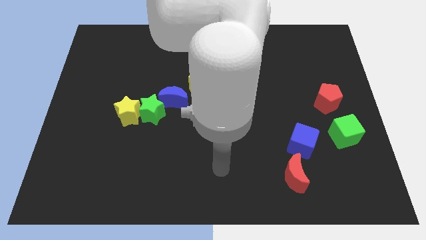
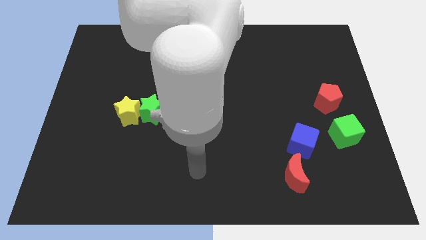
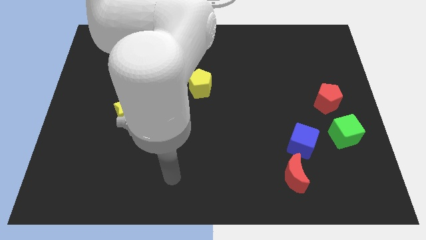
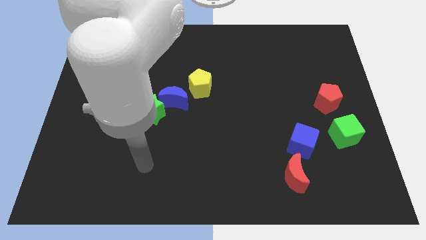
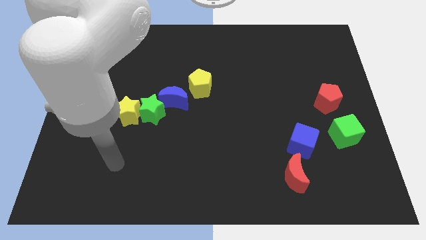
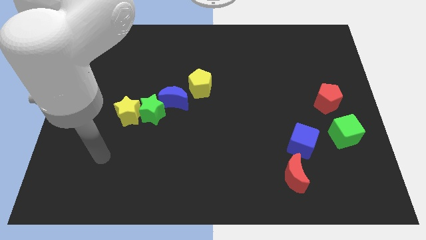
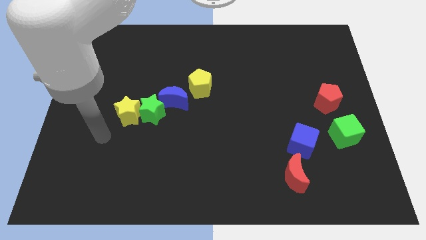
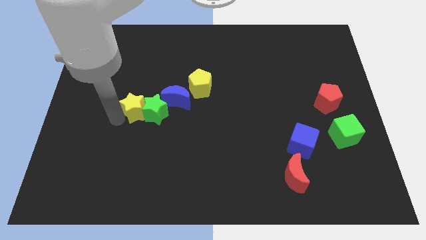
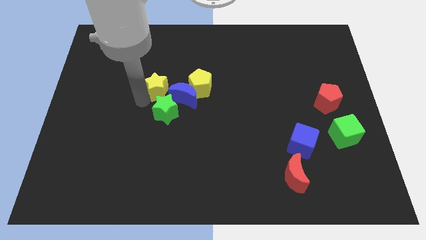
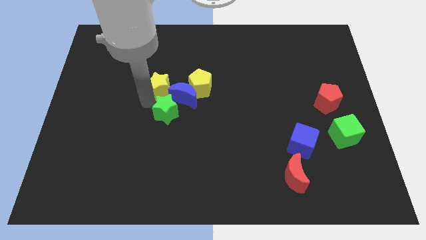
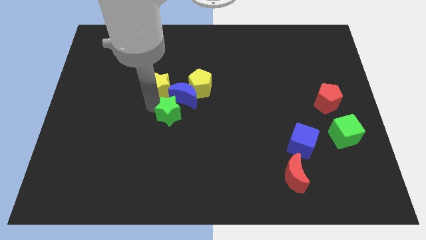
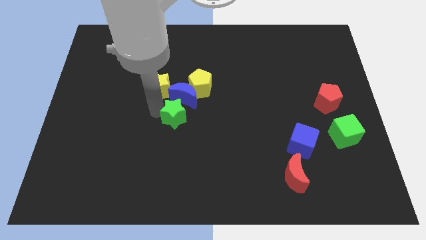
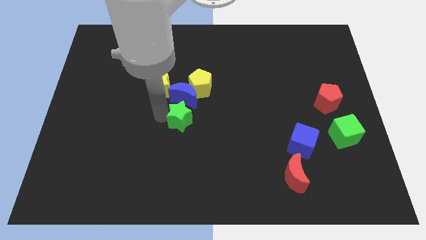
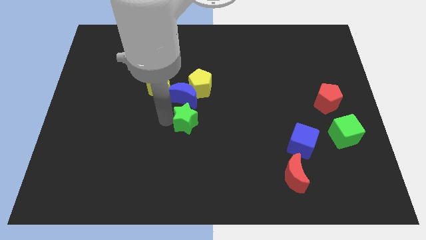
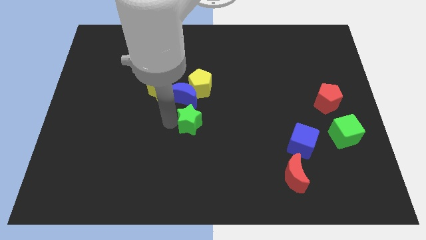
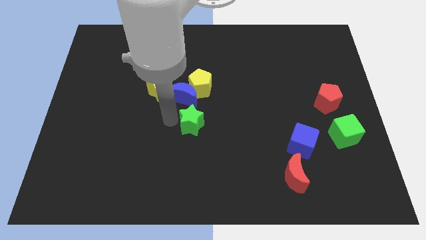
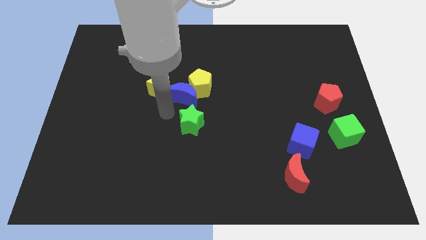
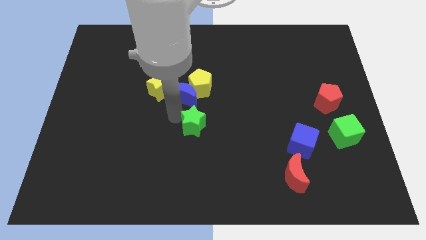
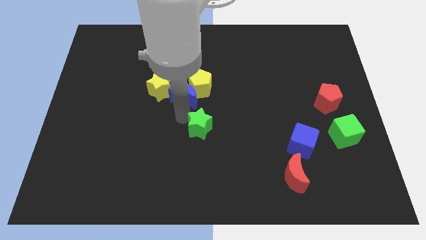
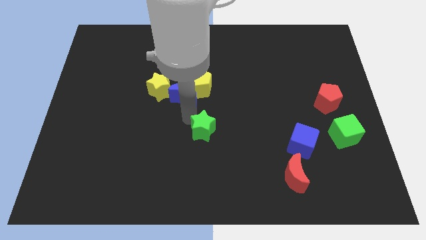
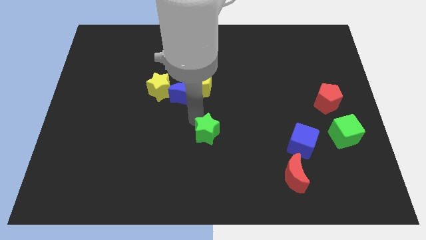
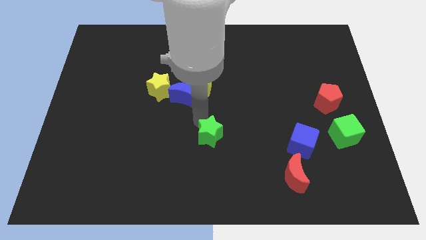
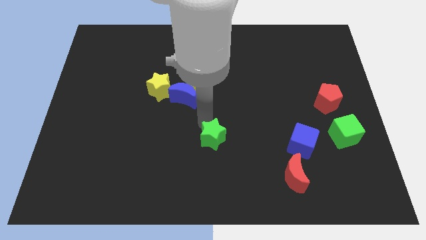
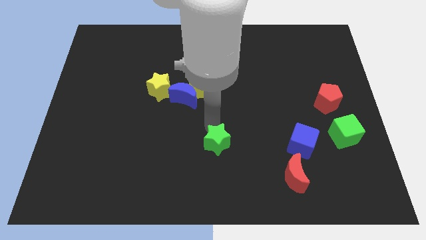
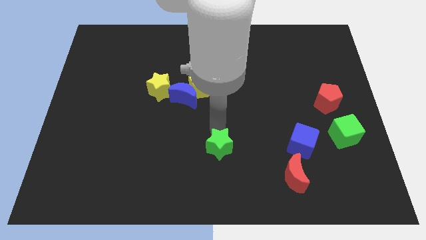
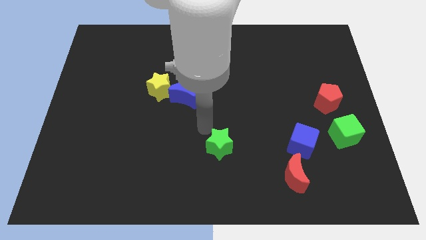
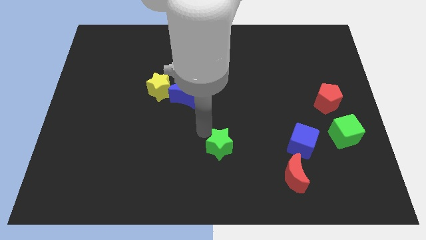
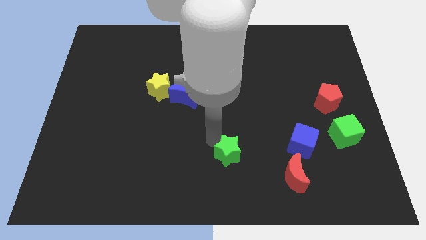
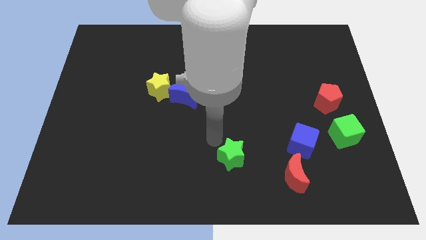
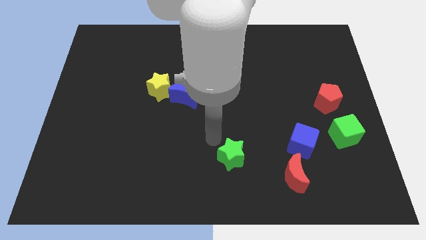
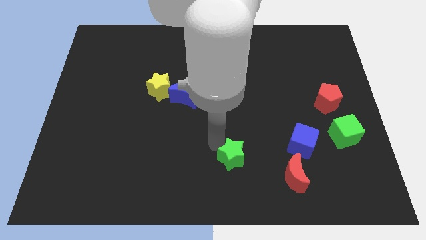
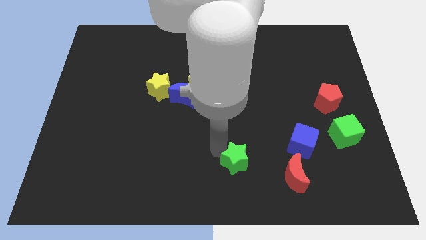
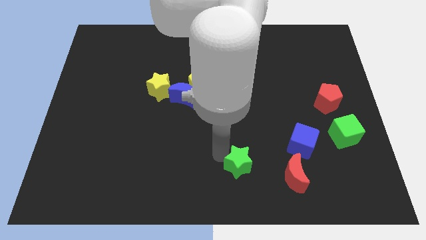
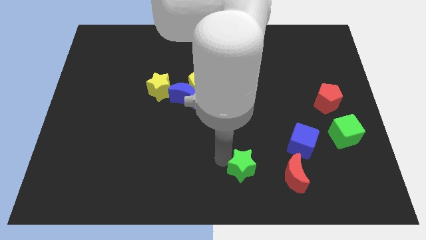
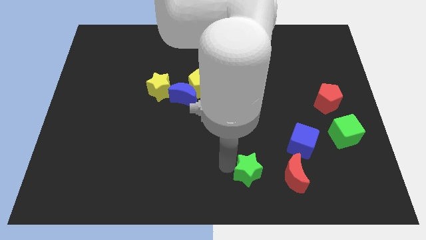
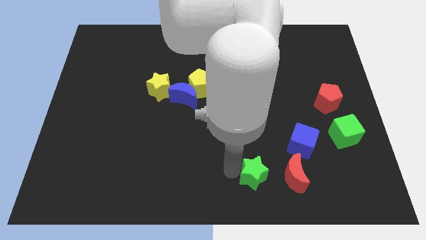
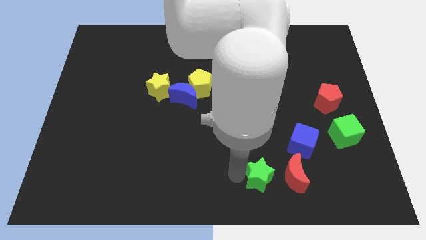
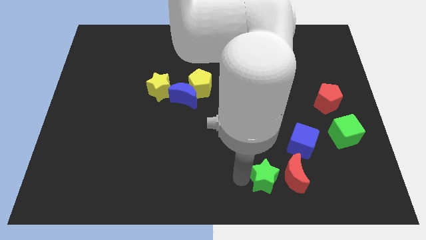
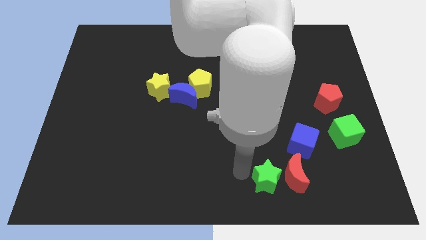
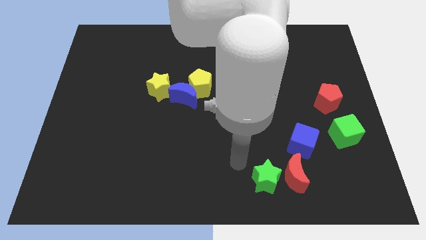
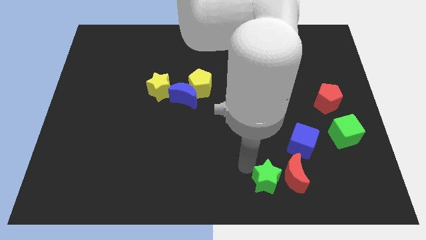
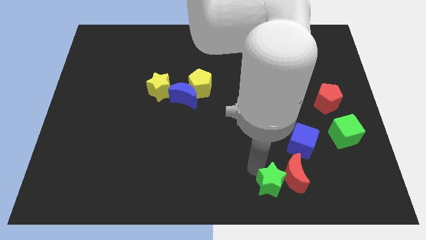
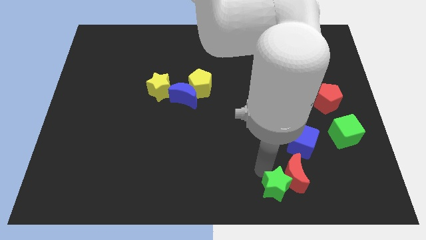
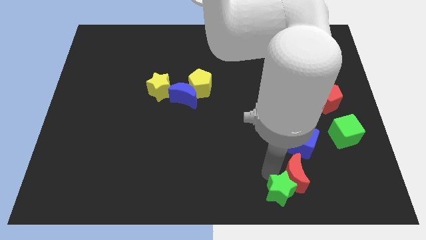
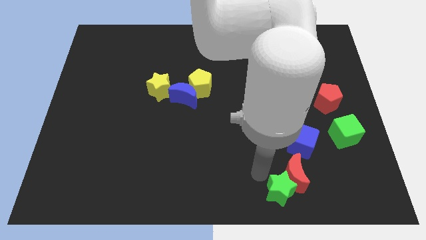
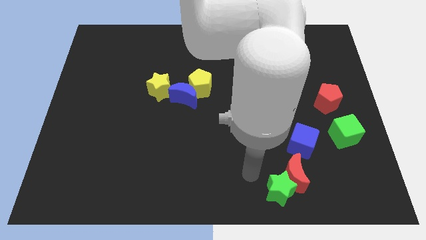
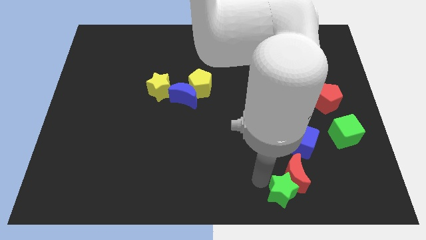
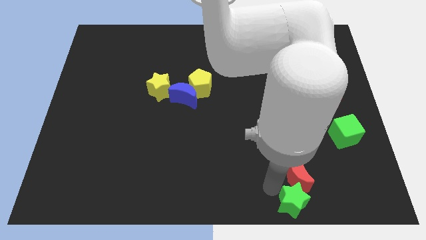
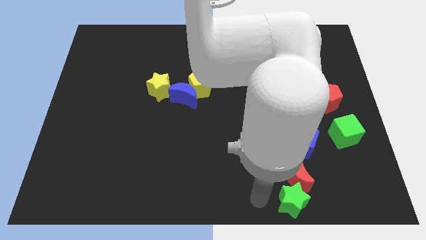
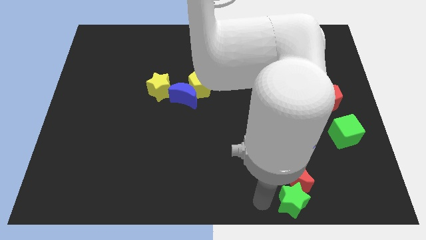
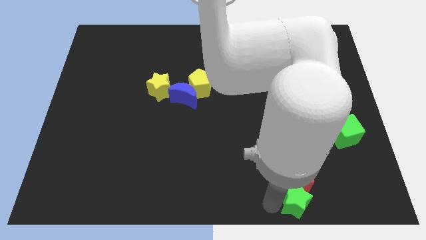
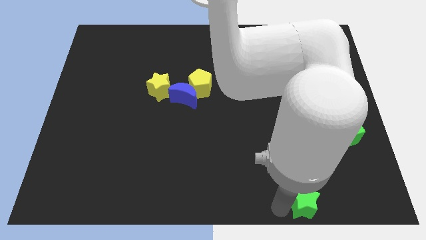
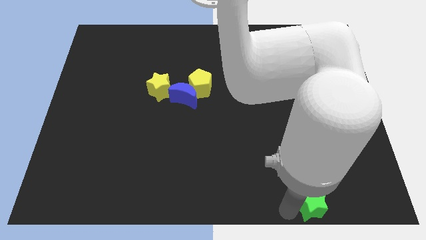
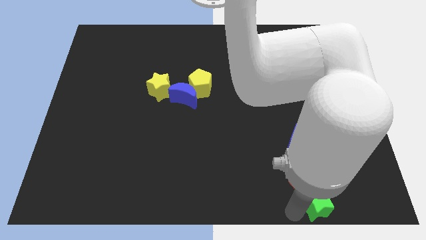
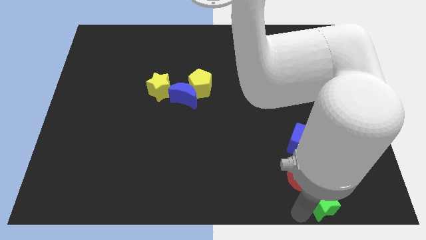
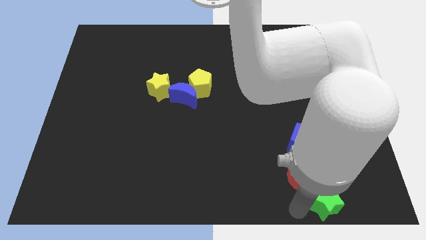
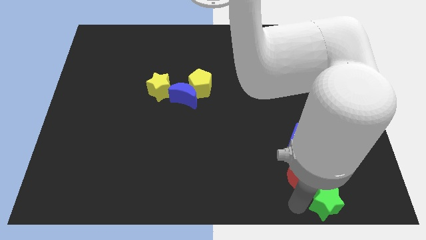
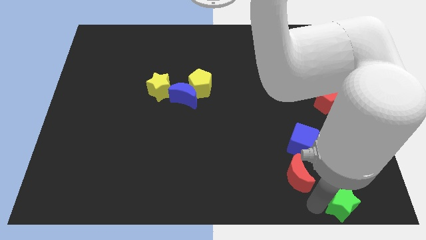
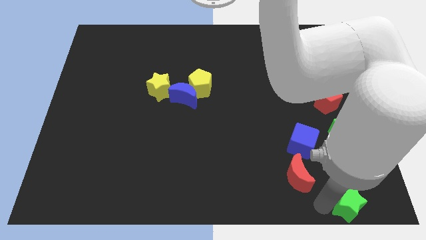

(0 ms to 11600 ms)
slide the green star to the bottom right of the board

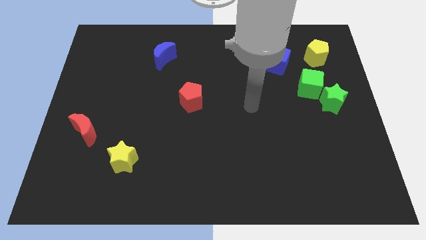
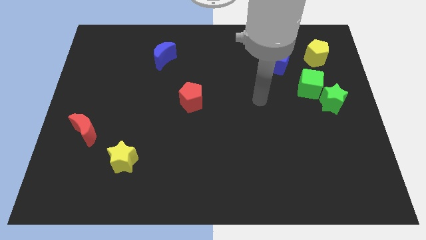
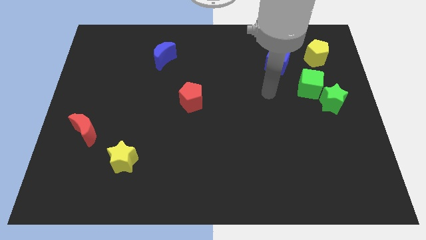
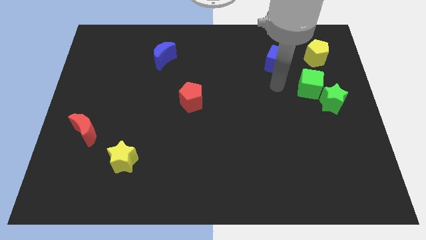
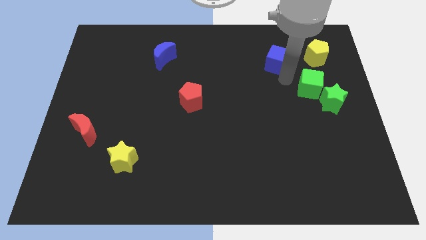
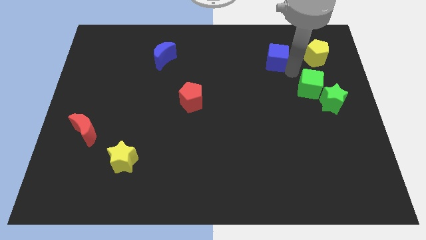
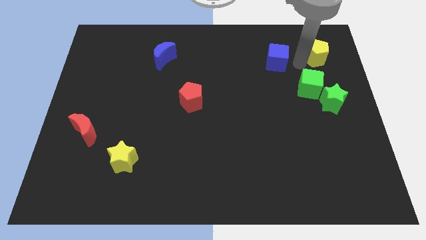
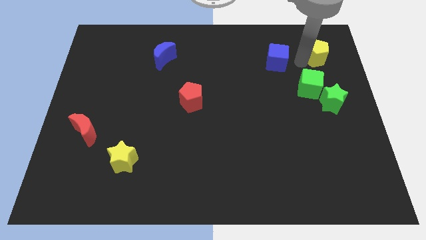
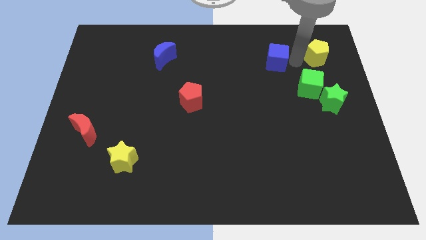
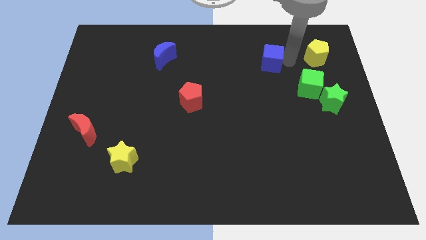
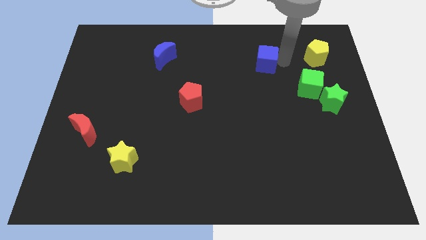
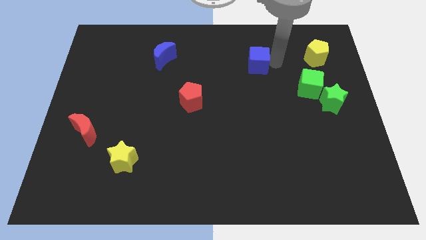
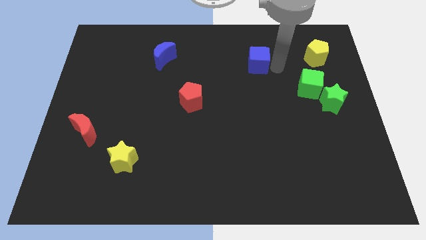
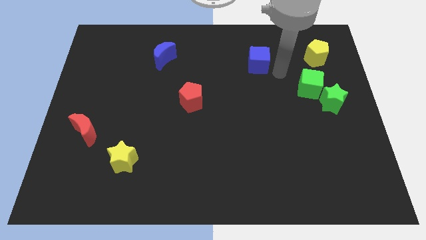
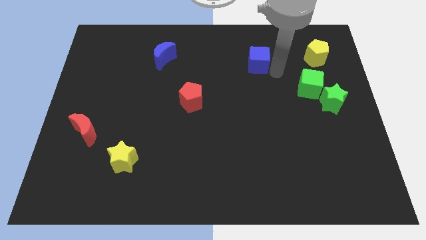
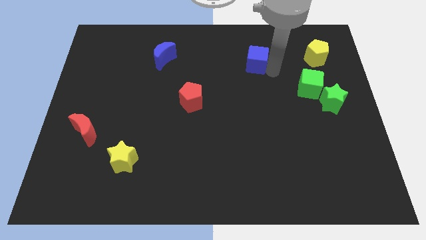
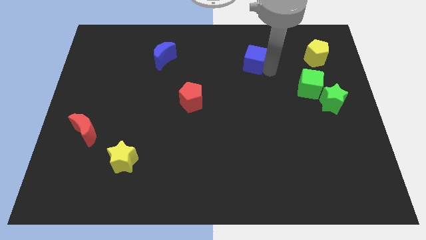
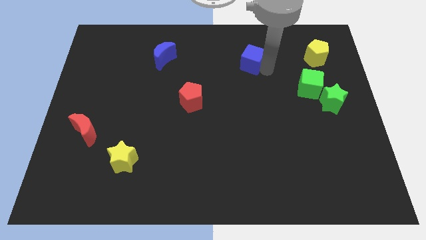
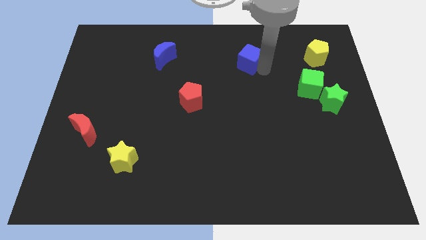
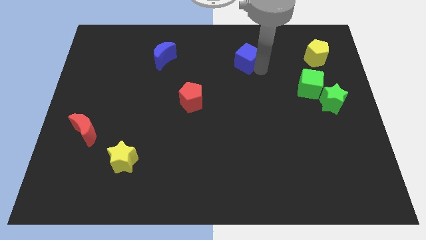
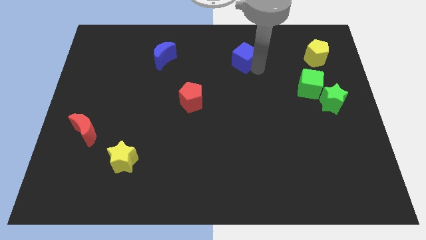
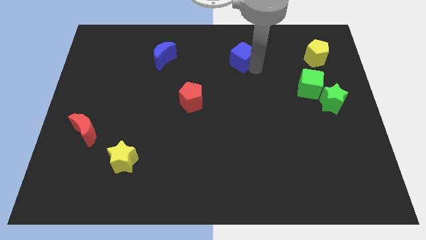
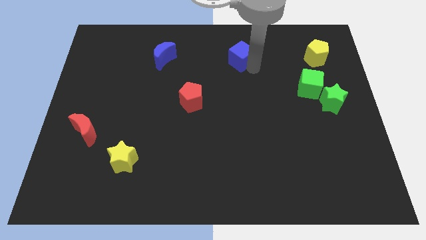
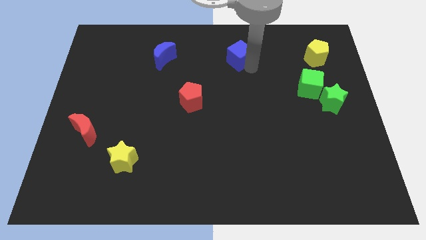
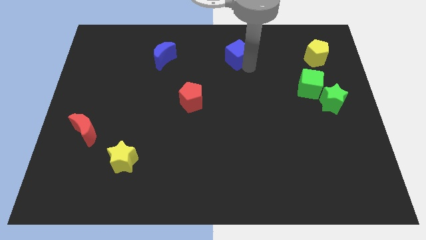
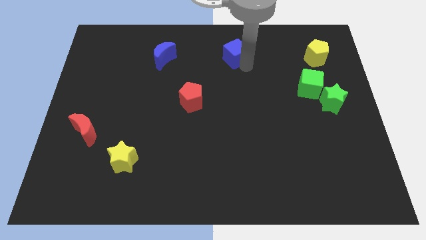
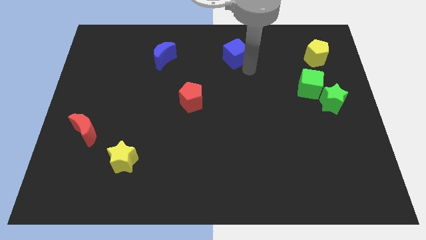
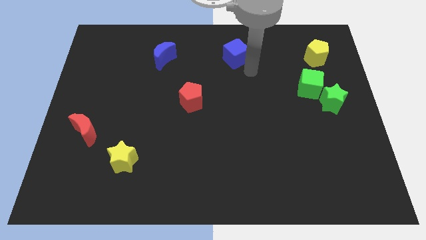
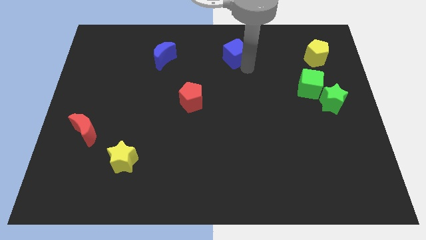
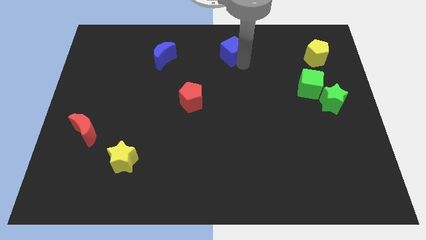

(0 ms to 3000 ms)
slide the blue cube to the top
